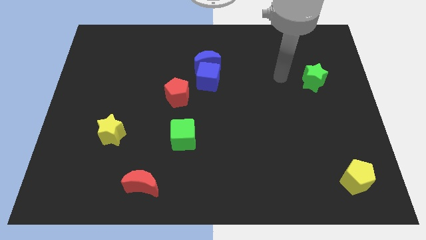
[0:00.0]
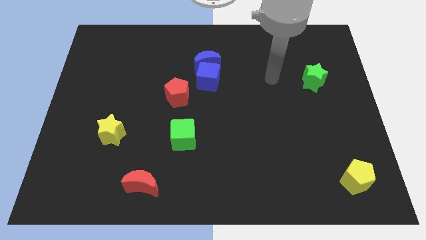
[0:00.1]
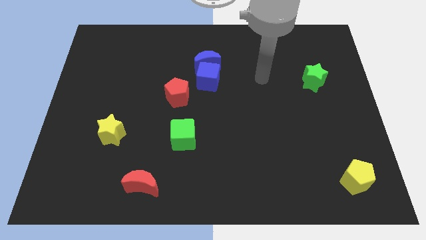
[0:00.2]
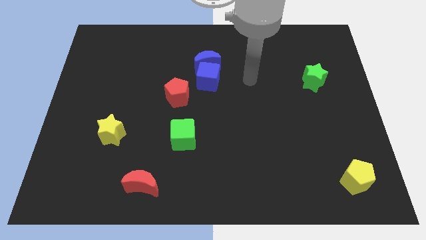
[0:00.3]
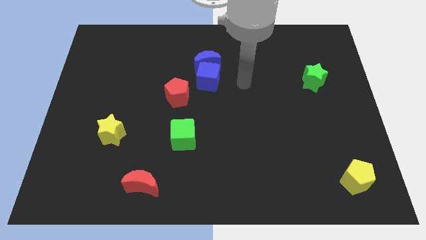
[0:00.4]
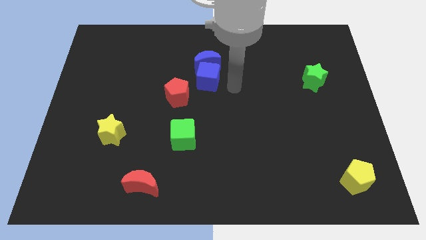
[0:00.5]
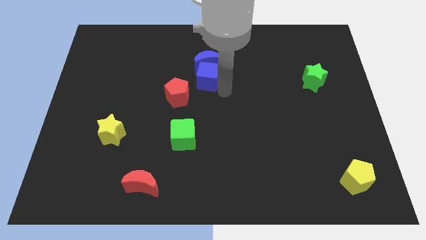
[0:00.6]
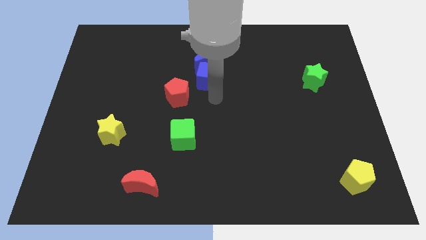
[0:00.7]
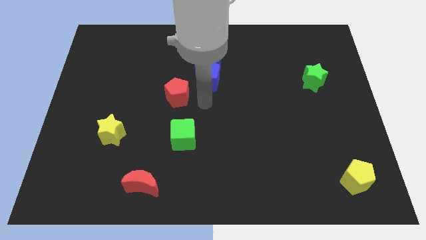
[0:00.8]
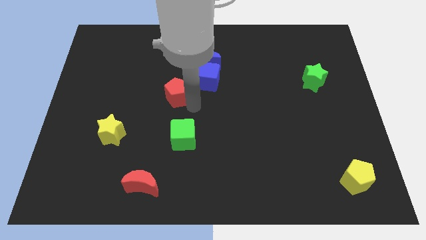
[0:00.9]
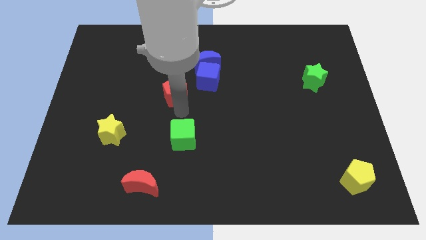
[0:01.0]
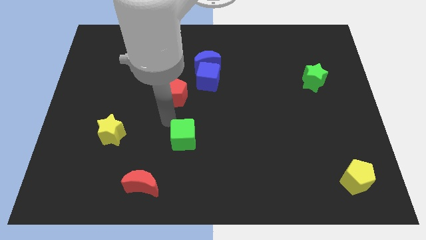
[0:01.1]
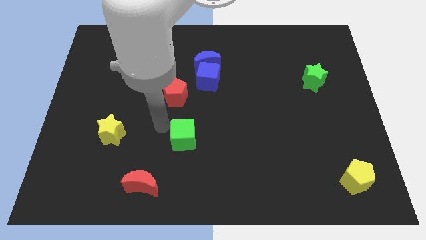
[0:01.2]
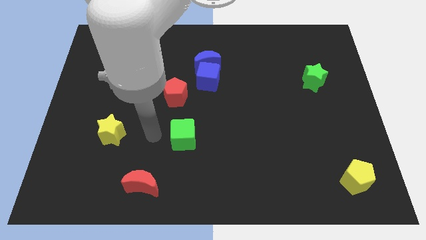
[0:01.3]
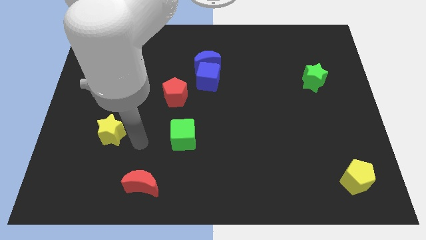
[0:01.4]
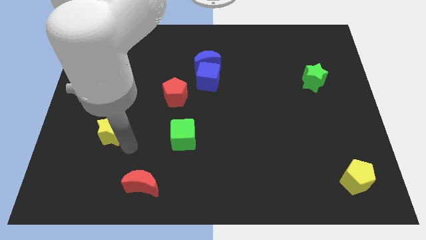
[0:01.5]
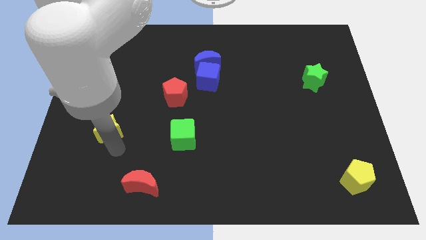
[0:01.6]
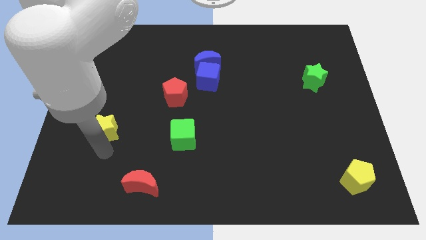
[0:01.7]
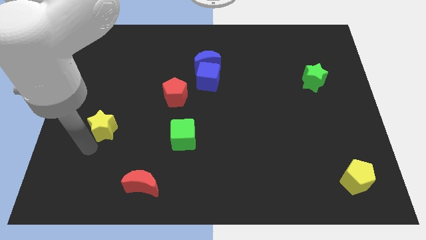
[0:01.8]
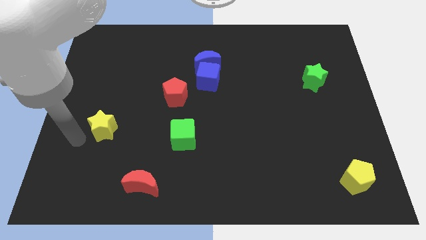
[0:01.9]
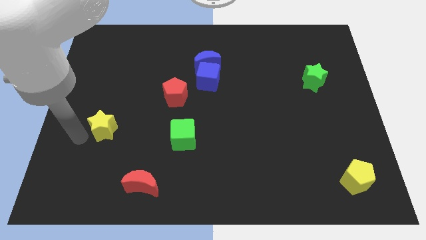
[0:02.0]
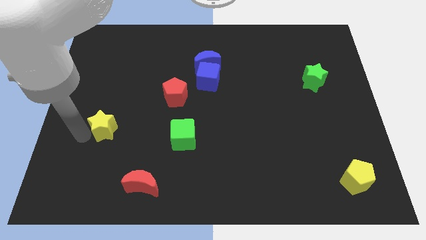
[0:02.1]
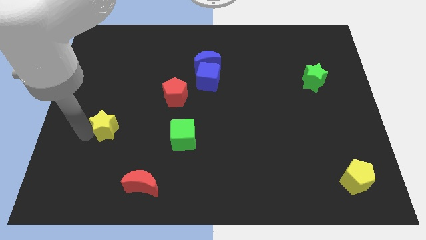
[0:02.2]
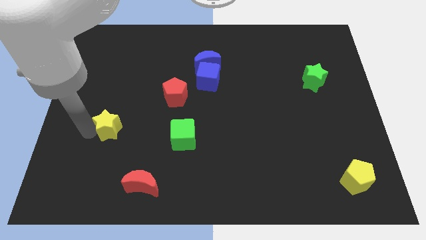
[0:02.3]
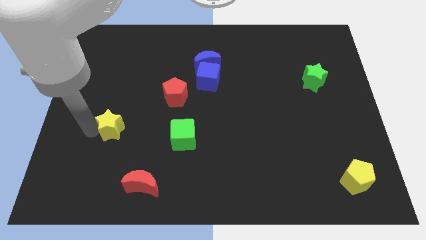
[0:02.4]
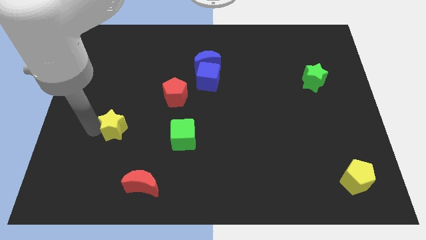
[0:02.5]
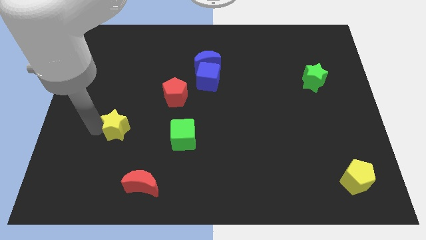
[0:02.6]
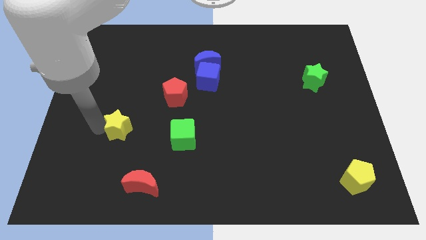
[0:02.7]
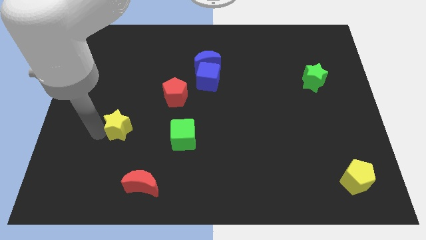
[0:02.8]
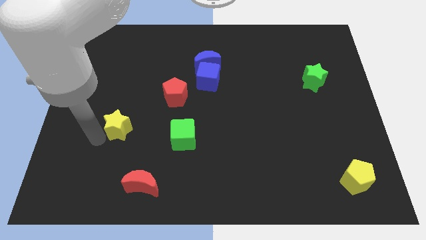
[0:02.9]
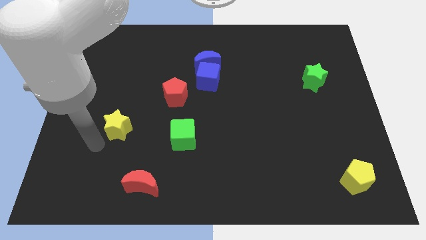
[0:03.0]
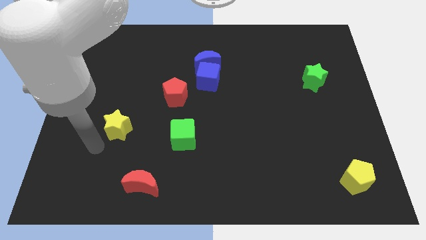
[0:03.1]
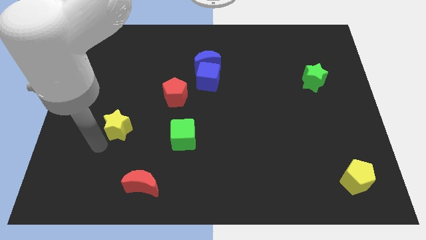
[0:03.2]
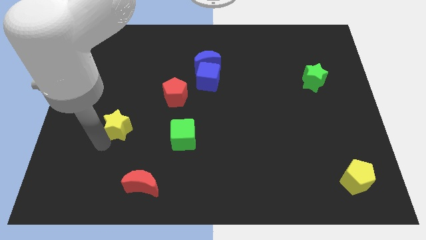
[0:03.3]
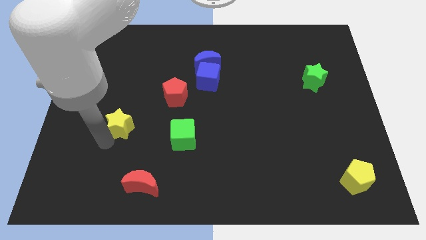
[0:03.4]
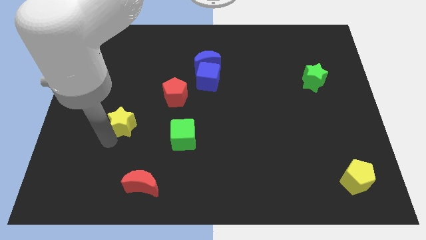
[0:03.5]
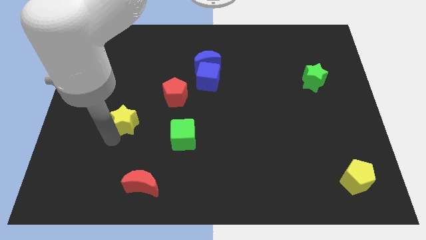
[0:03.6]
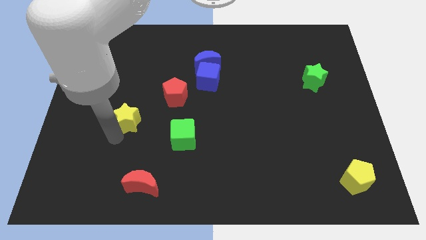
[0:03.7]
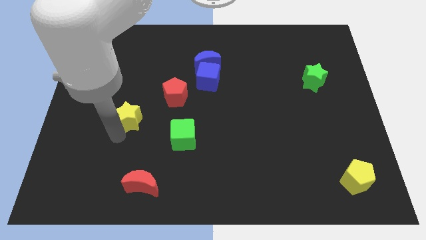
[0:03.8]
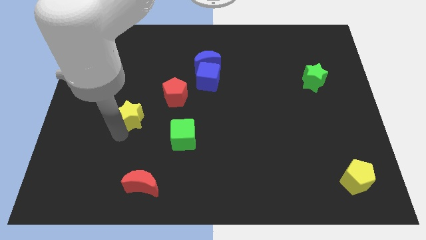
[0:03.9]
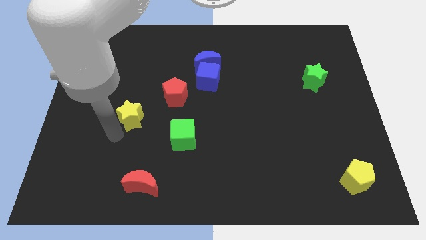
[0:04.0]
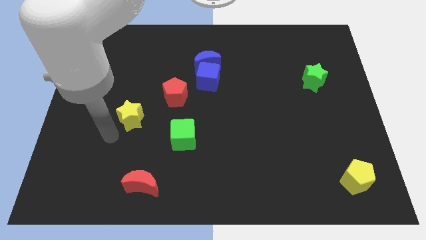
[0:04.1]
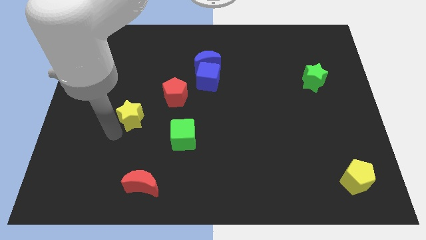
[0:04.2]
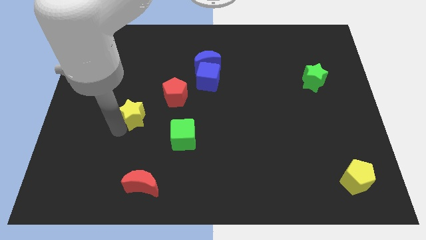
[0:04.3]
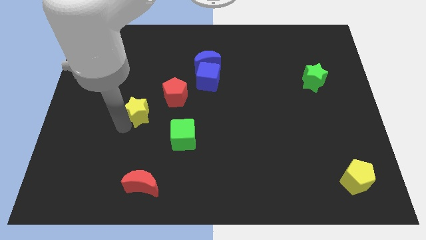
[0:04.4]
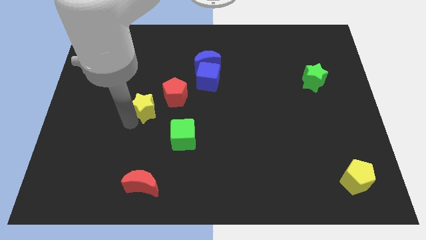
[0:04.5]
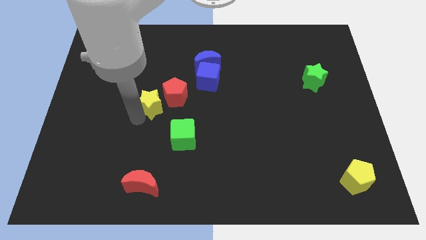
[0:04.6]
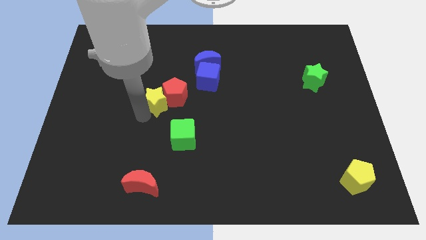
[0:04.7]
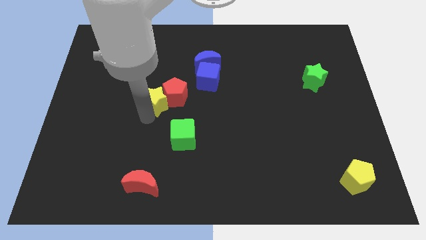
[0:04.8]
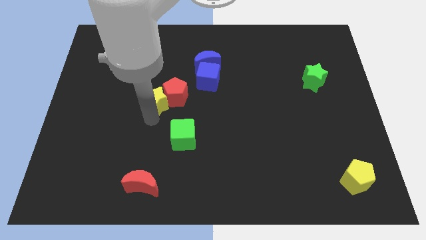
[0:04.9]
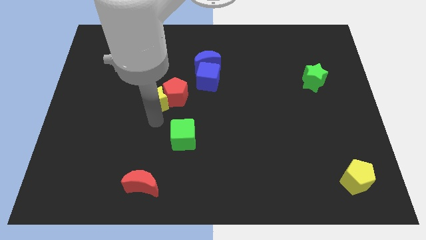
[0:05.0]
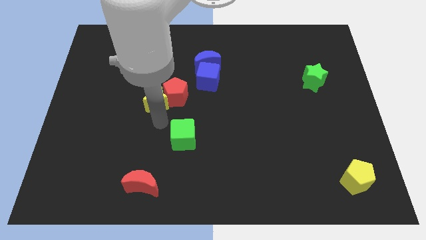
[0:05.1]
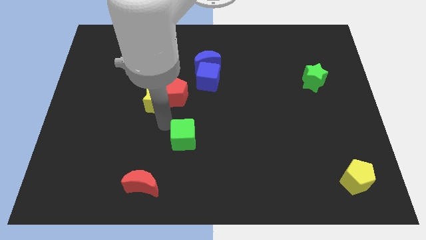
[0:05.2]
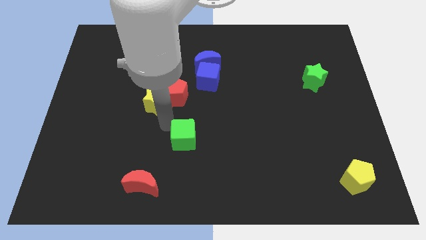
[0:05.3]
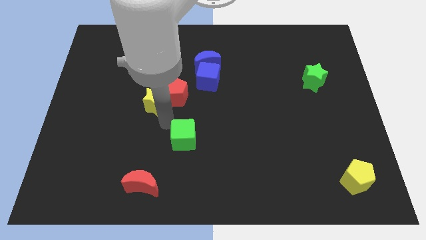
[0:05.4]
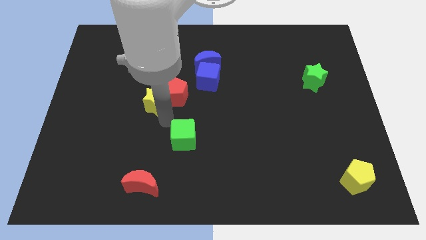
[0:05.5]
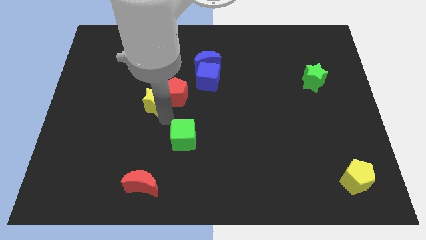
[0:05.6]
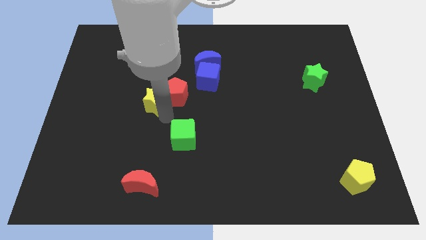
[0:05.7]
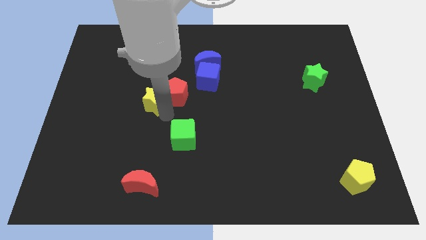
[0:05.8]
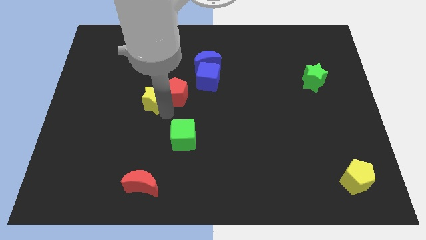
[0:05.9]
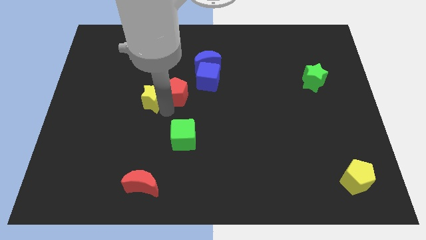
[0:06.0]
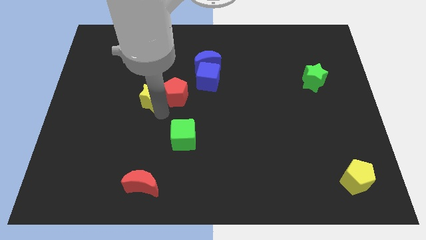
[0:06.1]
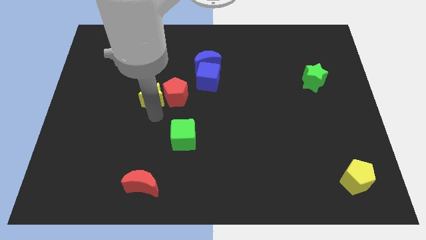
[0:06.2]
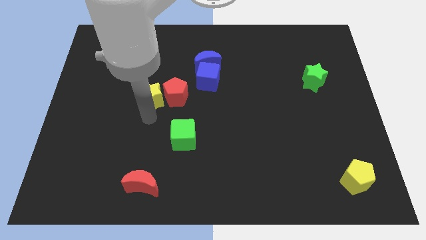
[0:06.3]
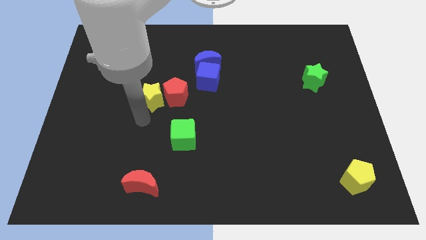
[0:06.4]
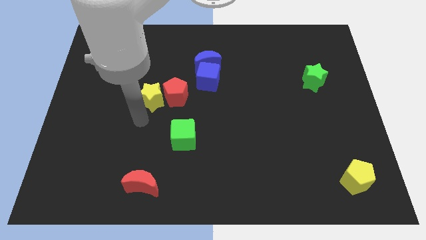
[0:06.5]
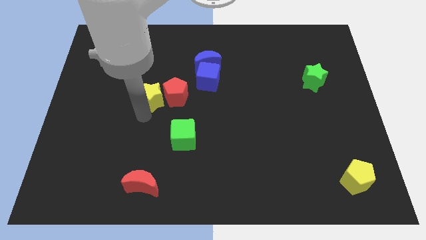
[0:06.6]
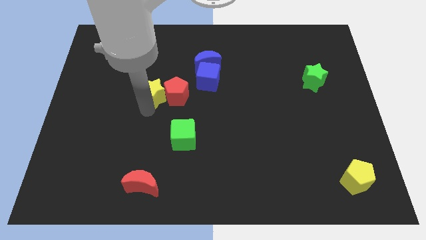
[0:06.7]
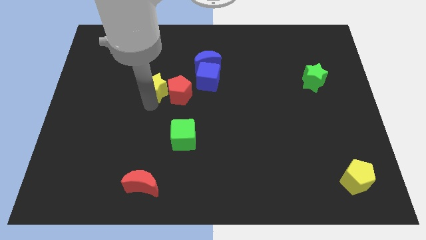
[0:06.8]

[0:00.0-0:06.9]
slide the yellow star left of the blue cube
